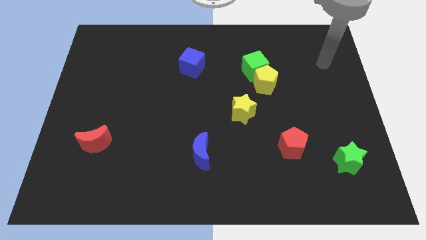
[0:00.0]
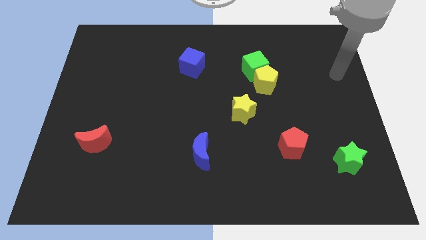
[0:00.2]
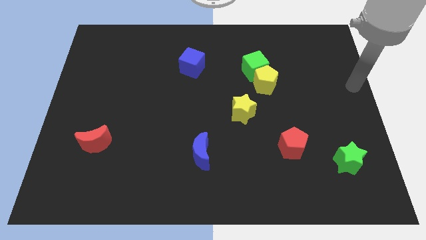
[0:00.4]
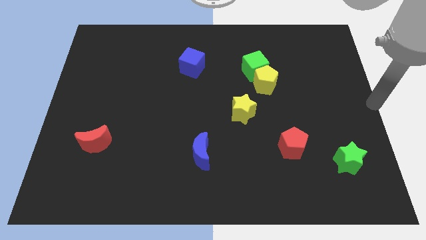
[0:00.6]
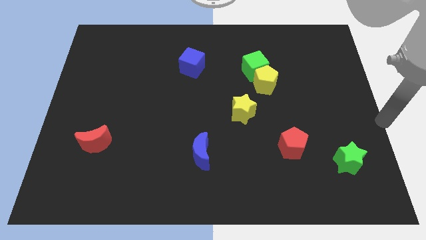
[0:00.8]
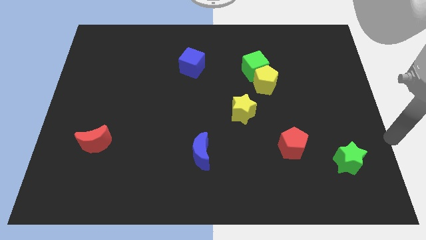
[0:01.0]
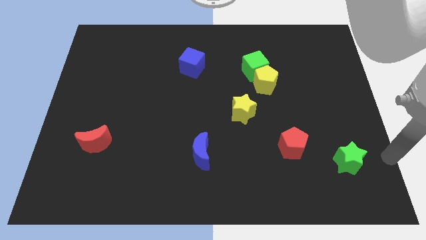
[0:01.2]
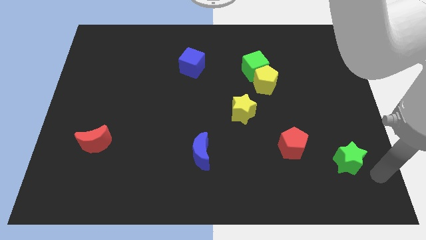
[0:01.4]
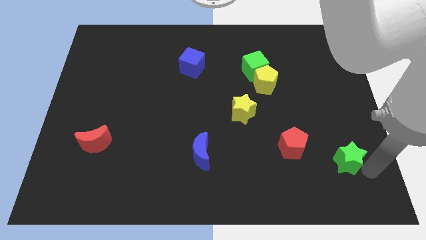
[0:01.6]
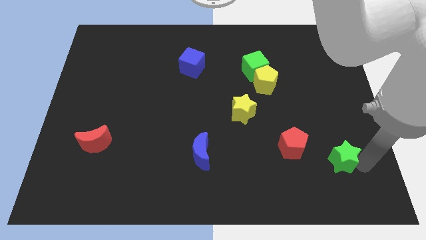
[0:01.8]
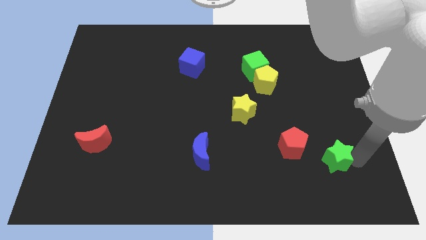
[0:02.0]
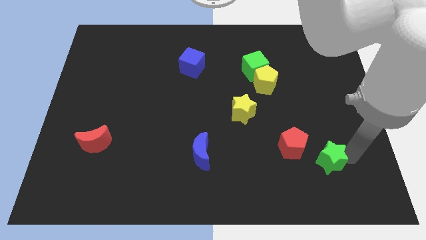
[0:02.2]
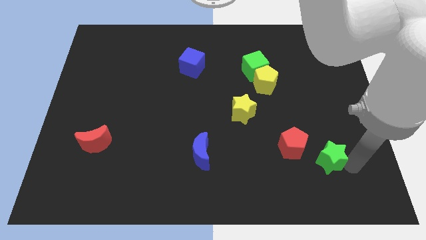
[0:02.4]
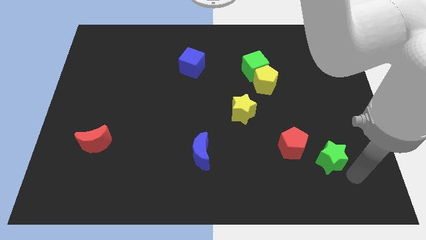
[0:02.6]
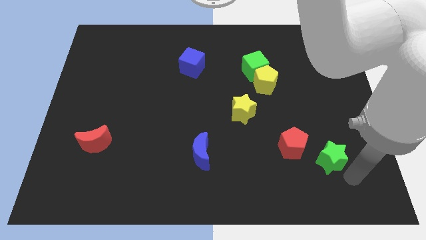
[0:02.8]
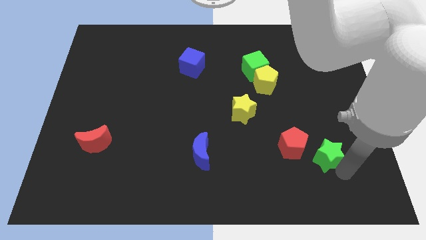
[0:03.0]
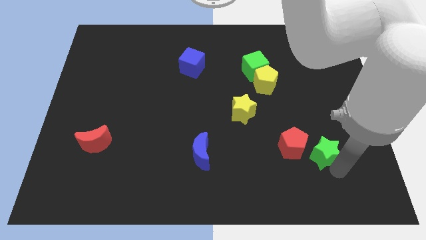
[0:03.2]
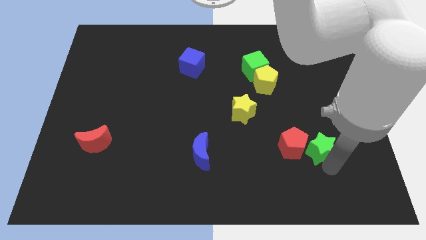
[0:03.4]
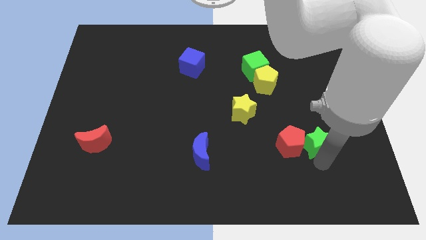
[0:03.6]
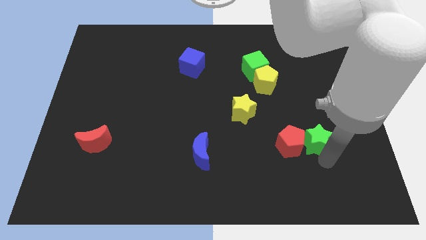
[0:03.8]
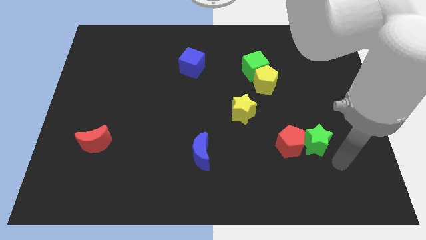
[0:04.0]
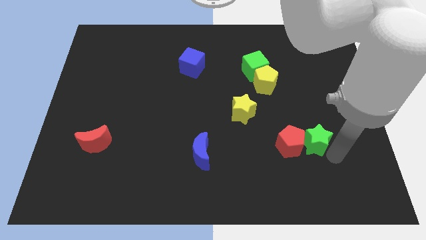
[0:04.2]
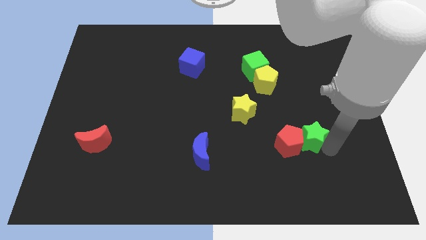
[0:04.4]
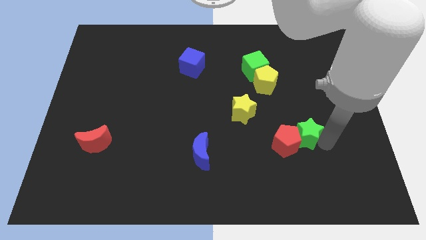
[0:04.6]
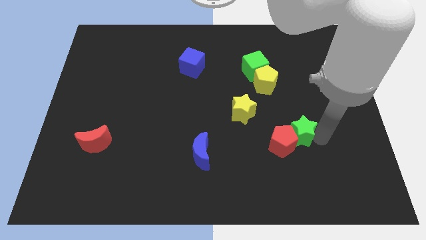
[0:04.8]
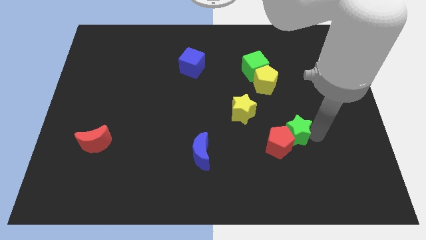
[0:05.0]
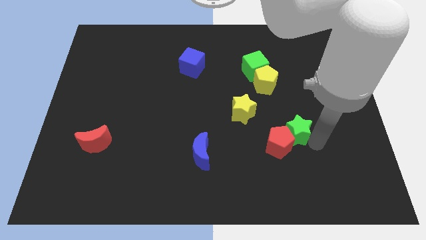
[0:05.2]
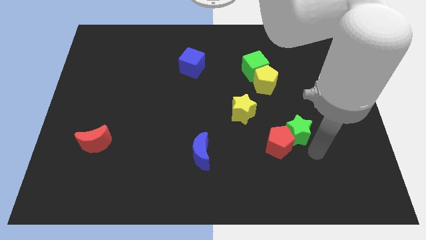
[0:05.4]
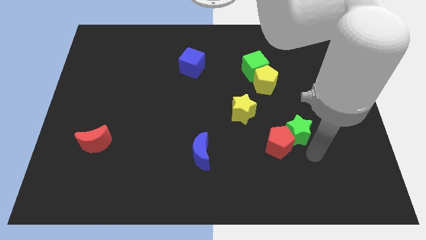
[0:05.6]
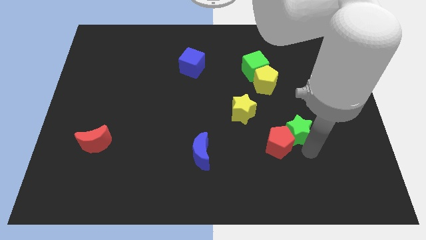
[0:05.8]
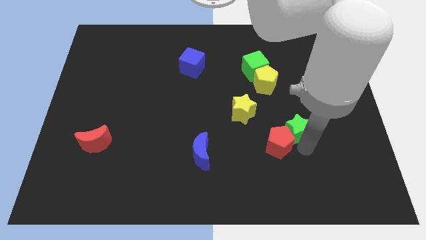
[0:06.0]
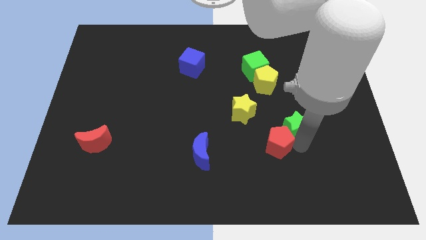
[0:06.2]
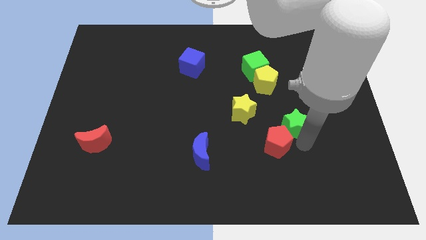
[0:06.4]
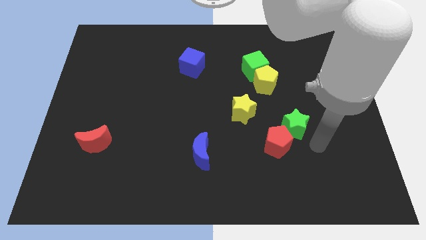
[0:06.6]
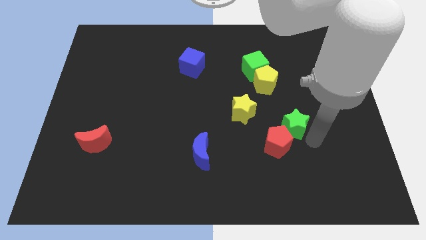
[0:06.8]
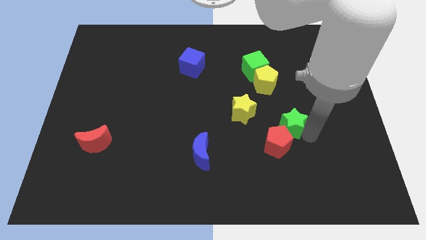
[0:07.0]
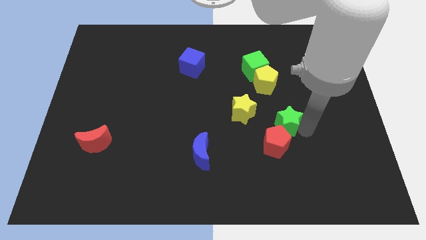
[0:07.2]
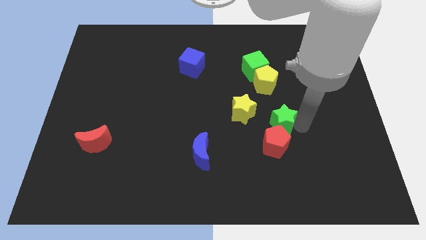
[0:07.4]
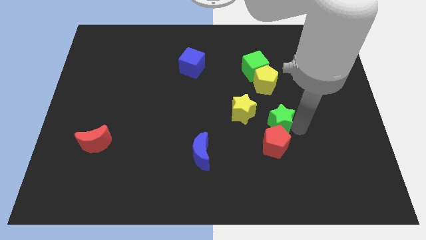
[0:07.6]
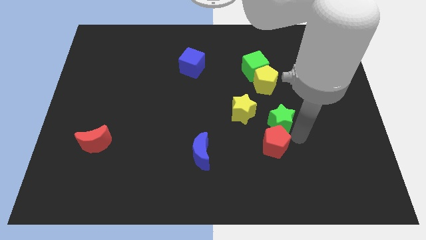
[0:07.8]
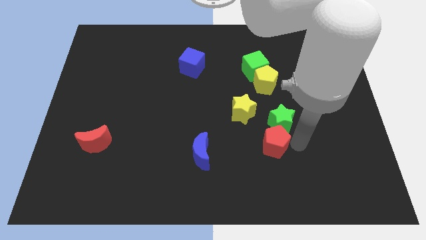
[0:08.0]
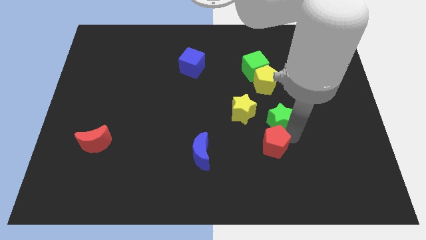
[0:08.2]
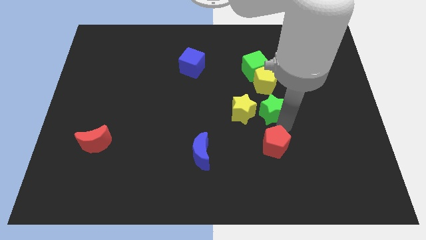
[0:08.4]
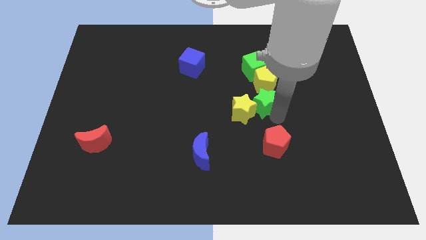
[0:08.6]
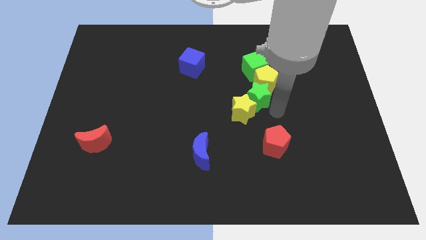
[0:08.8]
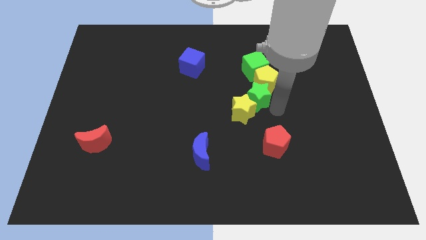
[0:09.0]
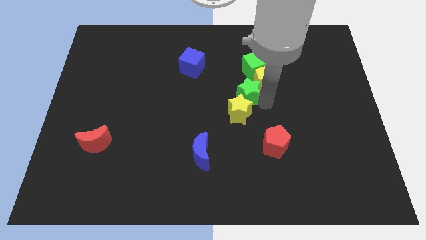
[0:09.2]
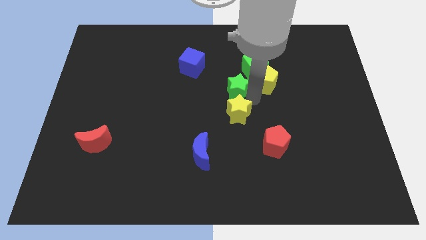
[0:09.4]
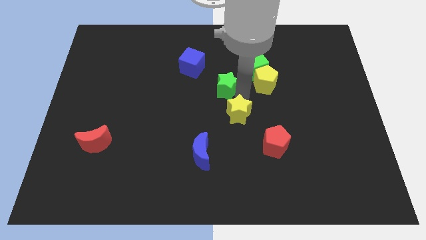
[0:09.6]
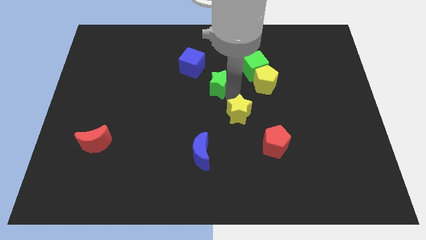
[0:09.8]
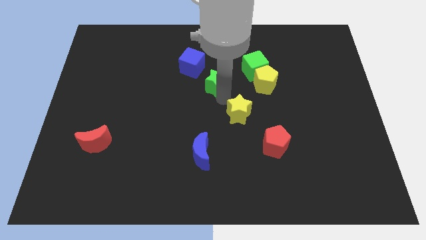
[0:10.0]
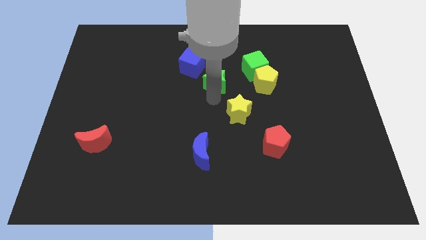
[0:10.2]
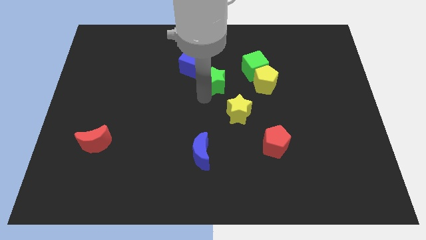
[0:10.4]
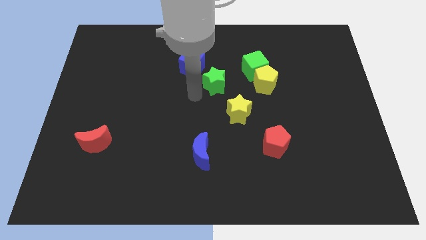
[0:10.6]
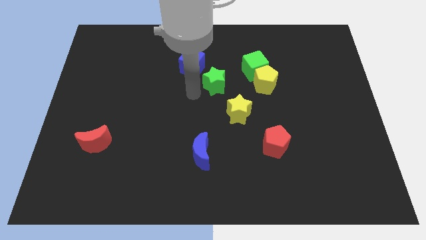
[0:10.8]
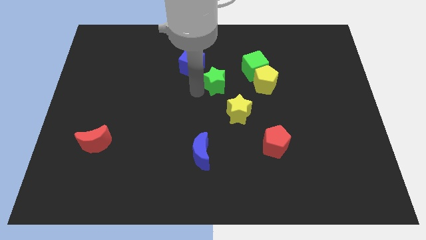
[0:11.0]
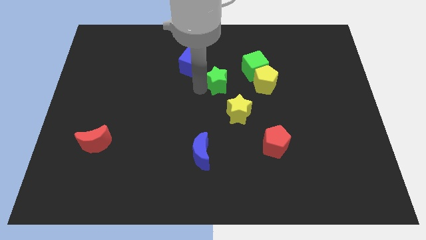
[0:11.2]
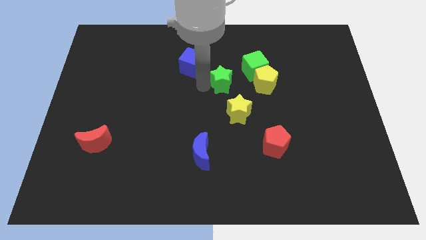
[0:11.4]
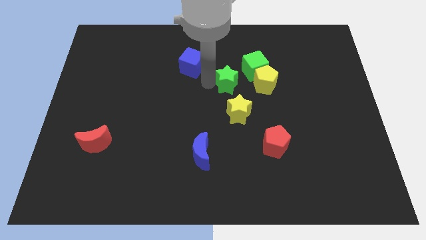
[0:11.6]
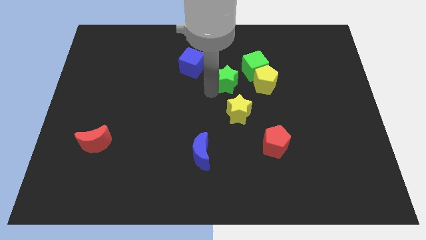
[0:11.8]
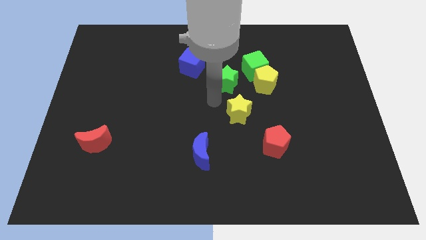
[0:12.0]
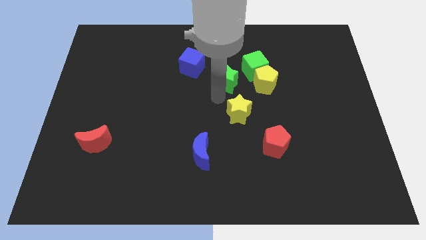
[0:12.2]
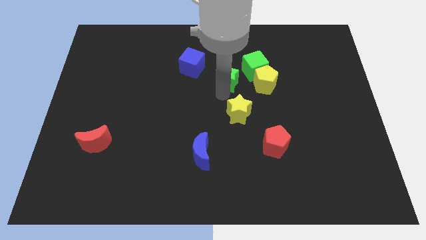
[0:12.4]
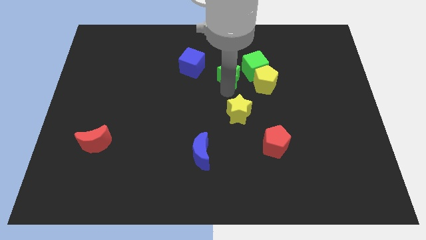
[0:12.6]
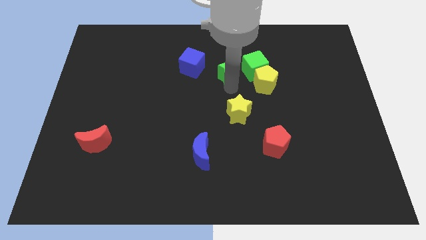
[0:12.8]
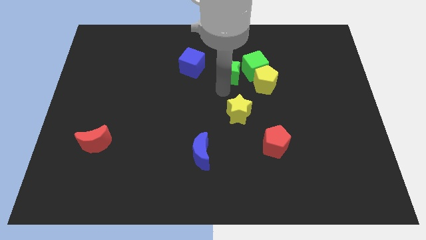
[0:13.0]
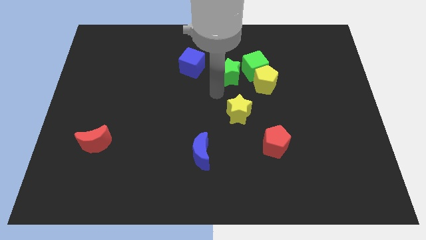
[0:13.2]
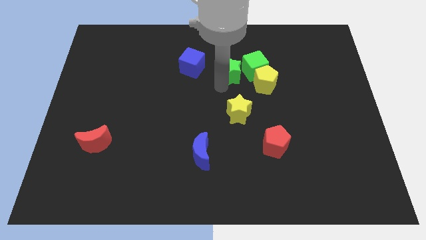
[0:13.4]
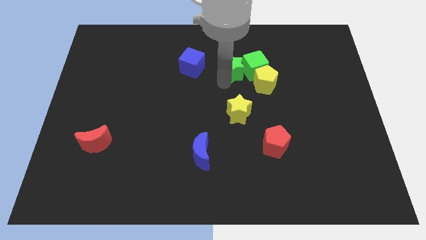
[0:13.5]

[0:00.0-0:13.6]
slide the green star diagonally up and to the left of the green cube

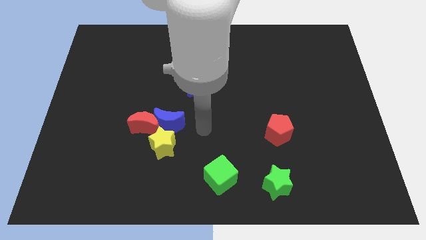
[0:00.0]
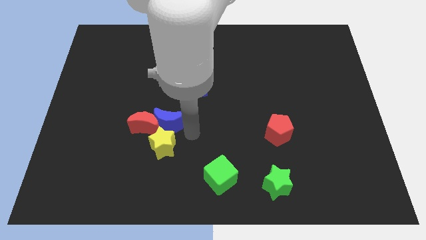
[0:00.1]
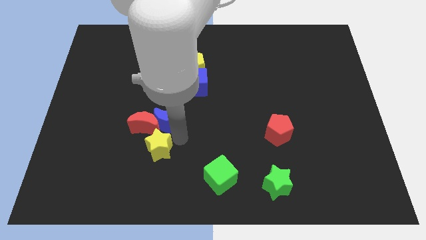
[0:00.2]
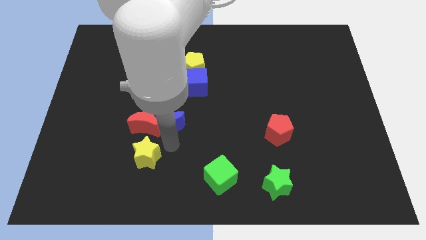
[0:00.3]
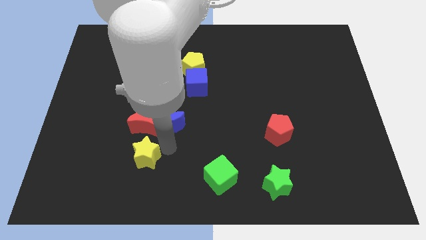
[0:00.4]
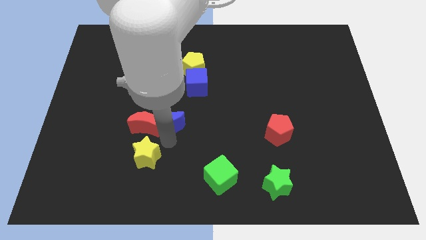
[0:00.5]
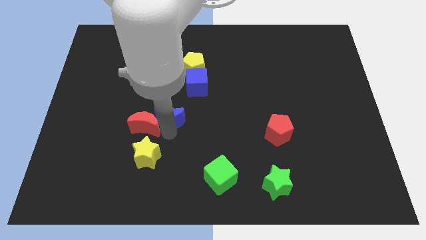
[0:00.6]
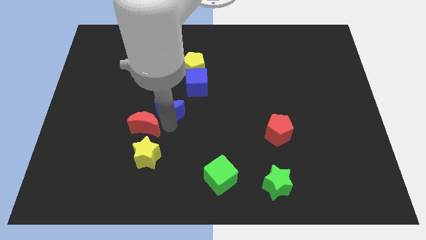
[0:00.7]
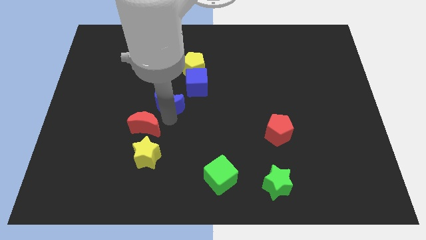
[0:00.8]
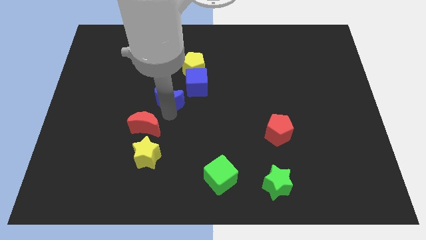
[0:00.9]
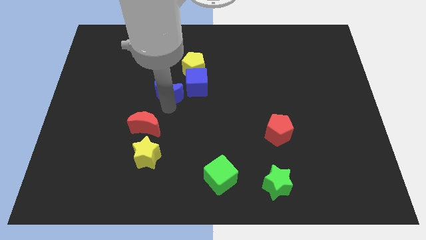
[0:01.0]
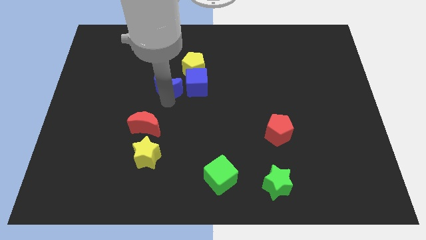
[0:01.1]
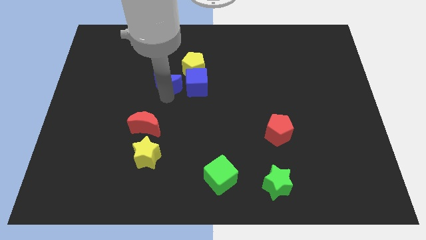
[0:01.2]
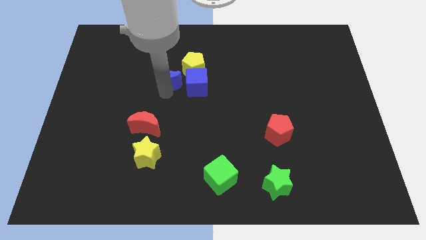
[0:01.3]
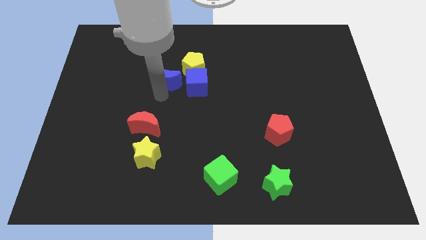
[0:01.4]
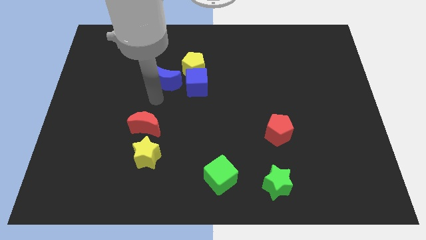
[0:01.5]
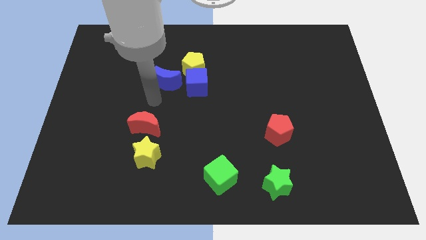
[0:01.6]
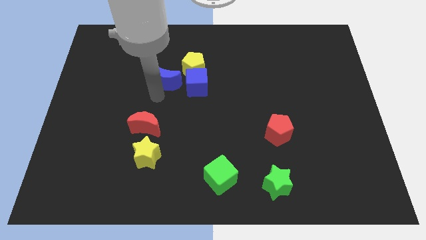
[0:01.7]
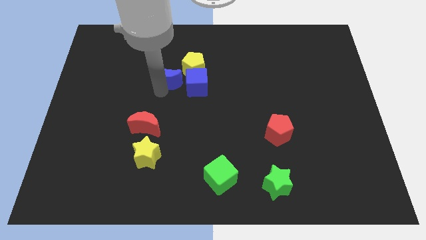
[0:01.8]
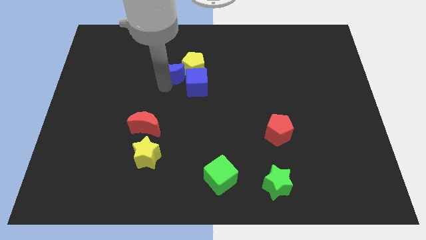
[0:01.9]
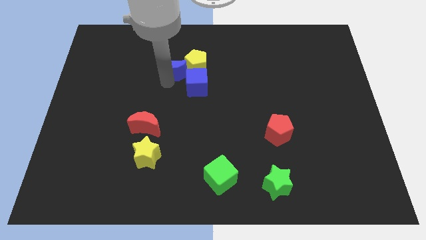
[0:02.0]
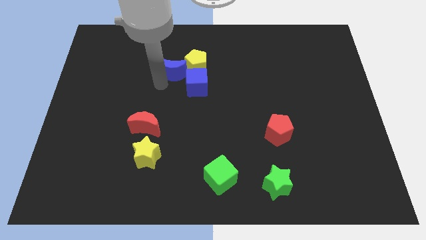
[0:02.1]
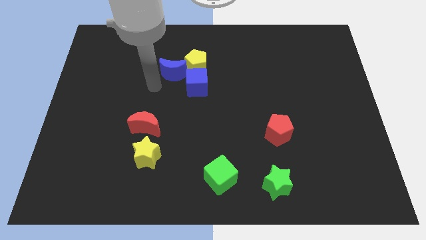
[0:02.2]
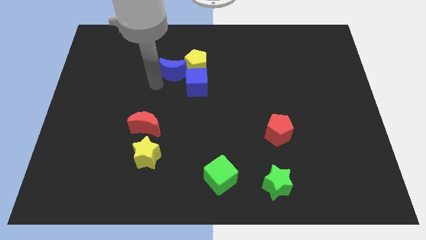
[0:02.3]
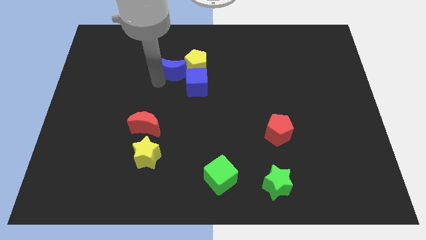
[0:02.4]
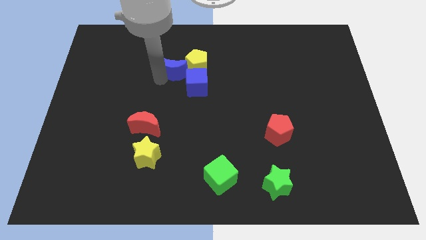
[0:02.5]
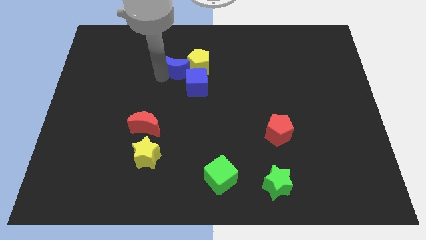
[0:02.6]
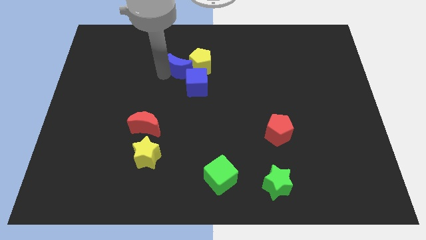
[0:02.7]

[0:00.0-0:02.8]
move the blue moon to the top side of the blue cube
